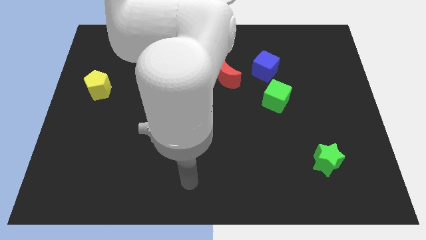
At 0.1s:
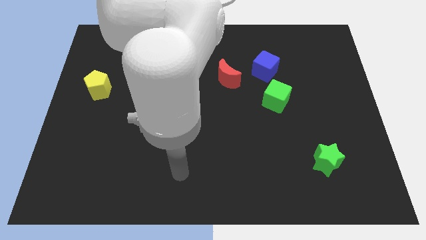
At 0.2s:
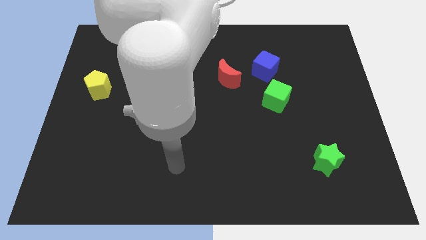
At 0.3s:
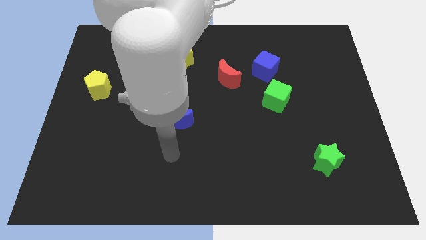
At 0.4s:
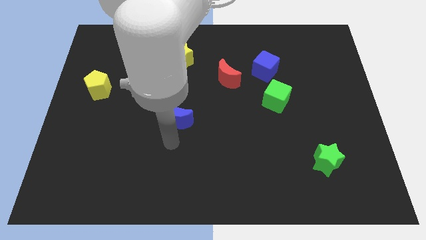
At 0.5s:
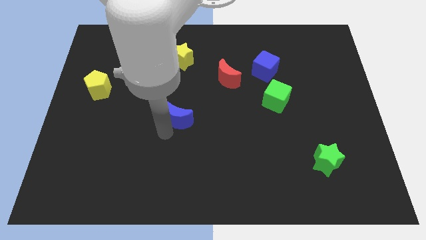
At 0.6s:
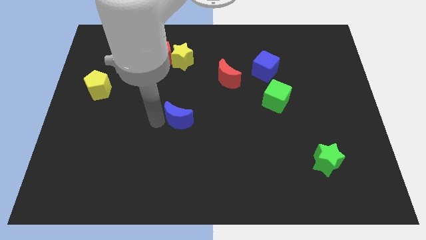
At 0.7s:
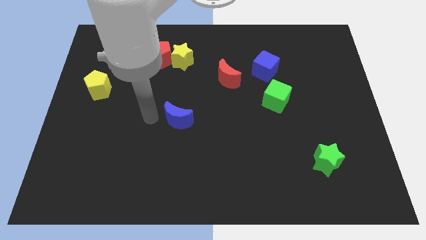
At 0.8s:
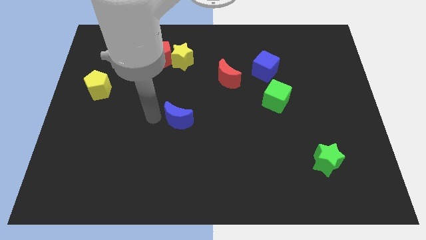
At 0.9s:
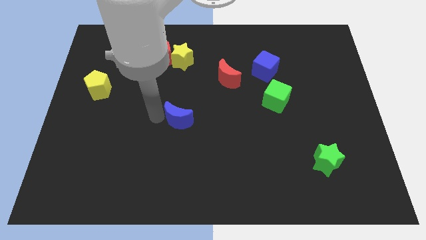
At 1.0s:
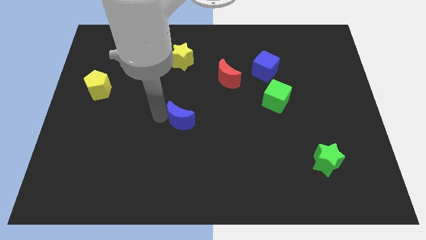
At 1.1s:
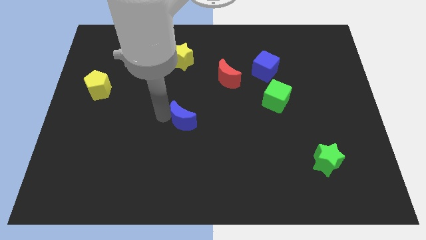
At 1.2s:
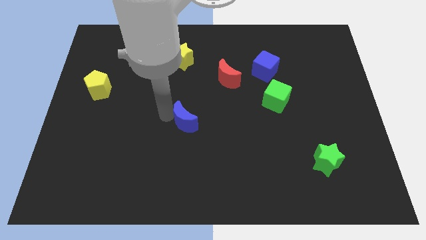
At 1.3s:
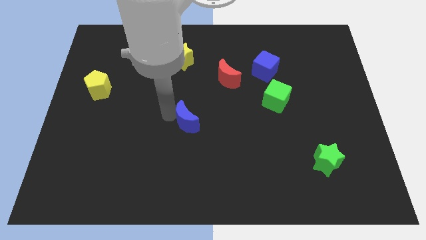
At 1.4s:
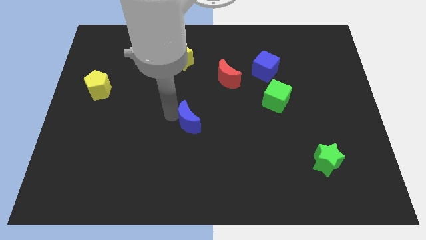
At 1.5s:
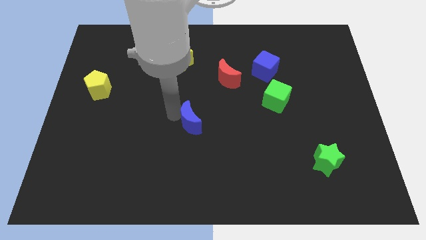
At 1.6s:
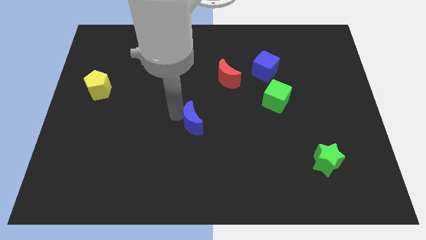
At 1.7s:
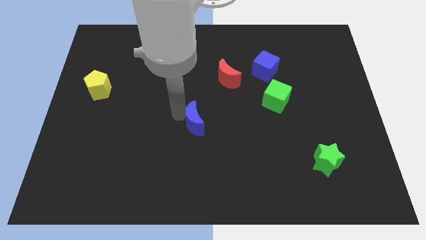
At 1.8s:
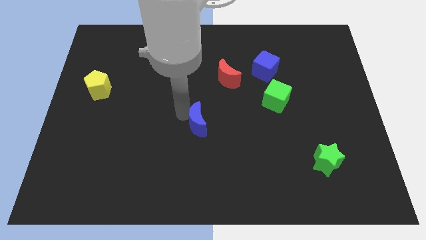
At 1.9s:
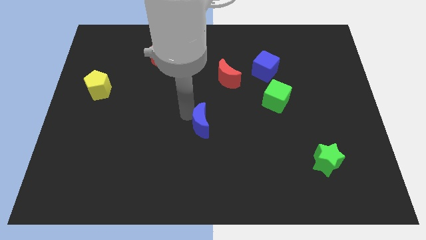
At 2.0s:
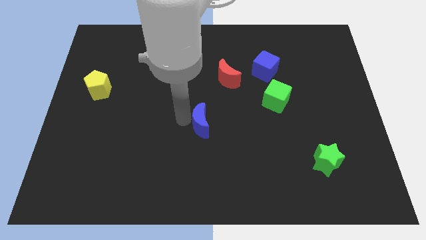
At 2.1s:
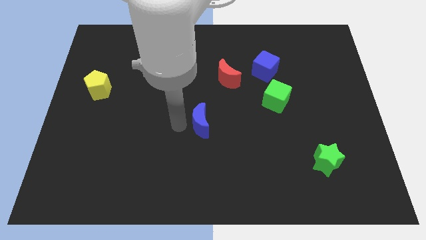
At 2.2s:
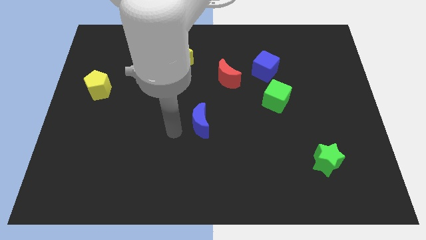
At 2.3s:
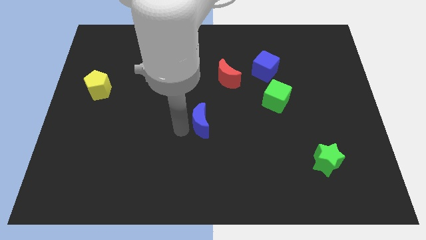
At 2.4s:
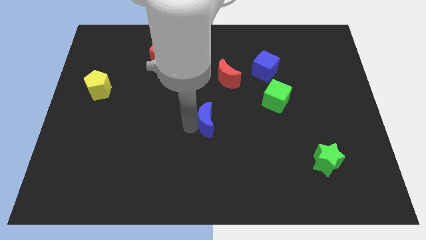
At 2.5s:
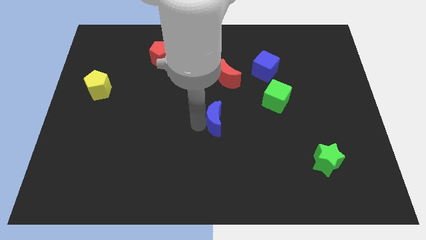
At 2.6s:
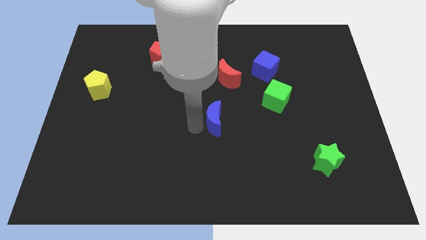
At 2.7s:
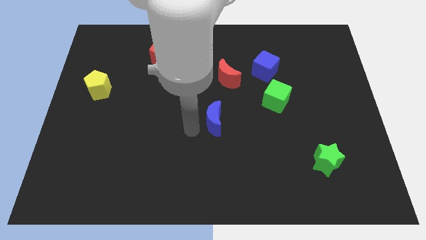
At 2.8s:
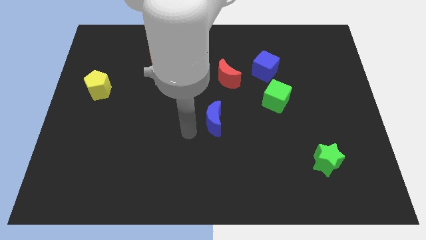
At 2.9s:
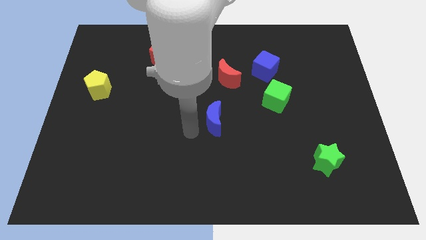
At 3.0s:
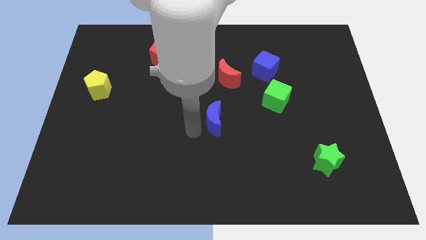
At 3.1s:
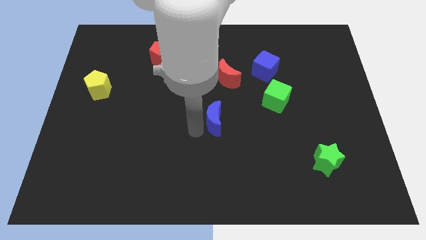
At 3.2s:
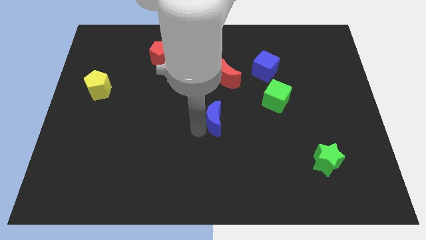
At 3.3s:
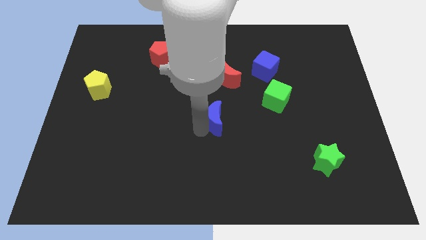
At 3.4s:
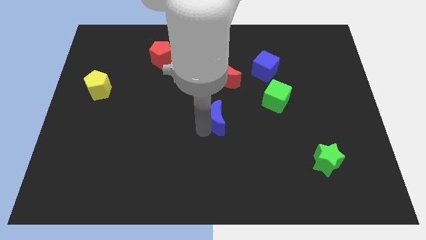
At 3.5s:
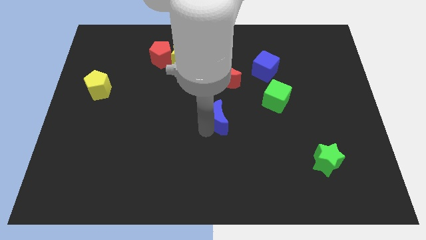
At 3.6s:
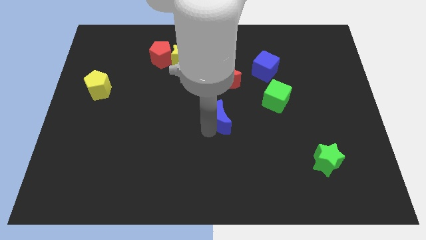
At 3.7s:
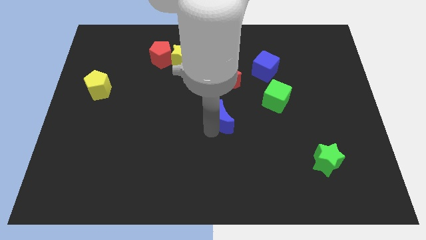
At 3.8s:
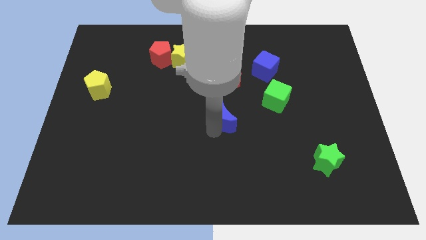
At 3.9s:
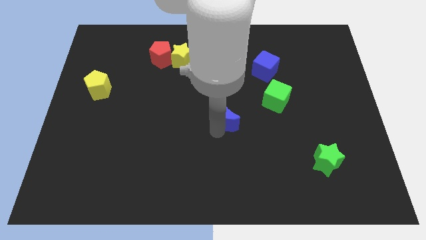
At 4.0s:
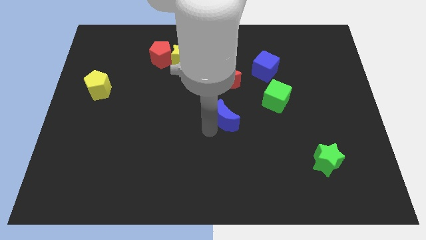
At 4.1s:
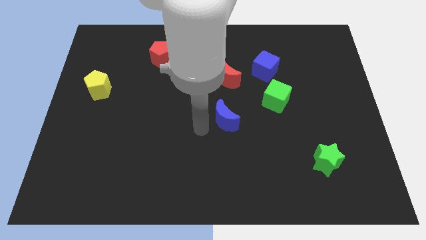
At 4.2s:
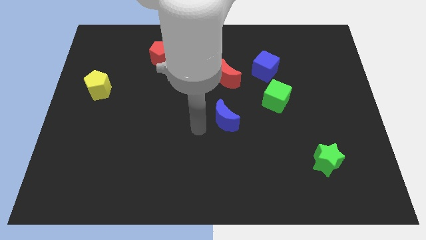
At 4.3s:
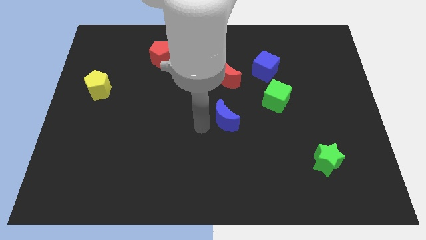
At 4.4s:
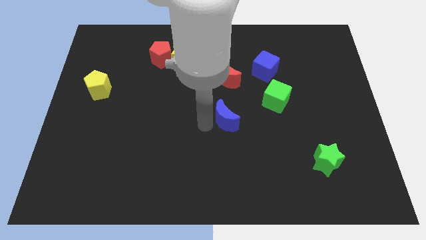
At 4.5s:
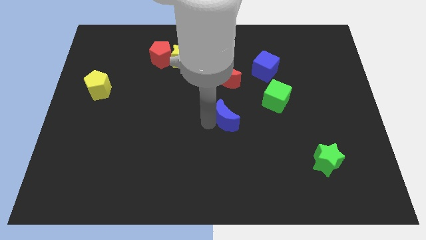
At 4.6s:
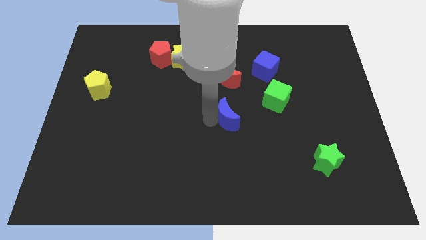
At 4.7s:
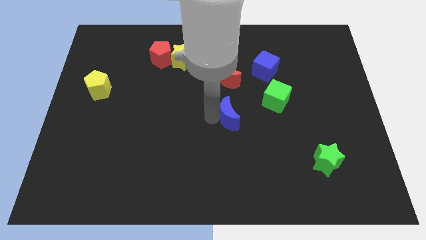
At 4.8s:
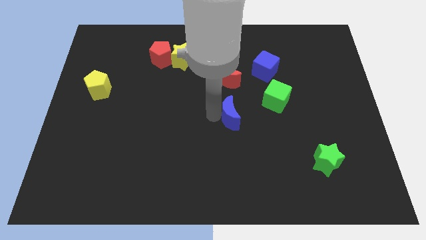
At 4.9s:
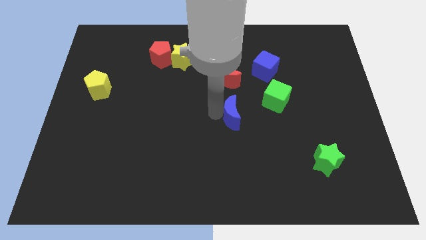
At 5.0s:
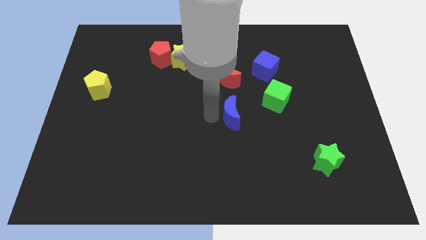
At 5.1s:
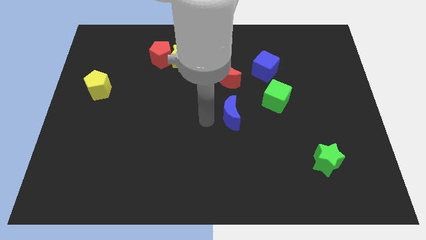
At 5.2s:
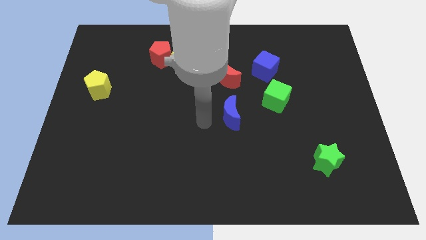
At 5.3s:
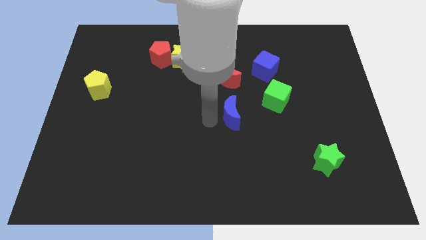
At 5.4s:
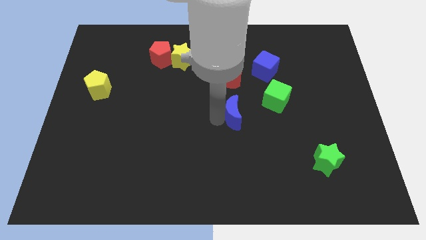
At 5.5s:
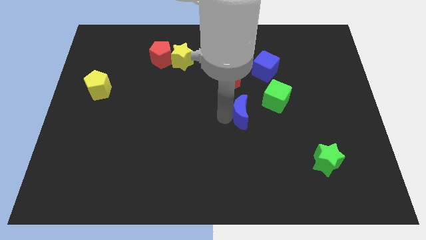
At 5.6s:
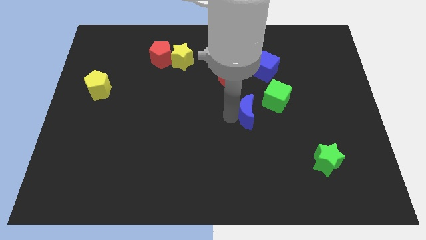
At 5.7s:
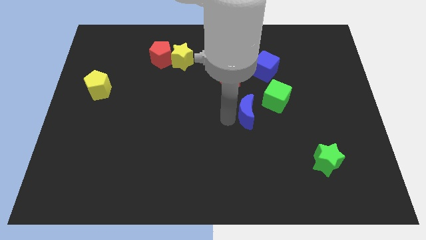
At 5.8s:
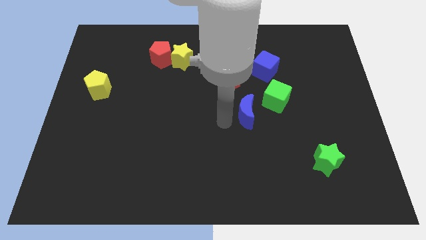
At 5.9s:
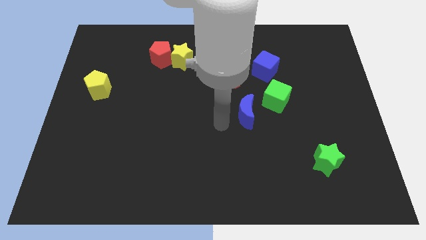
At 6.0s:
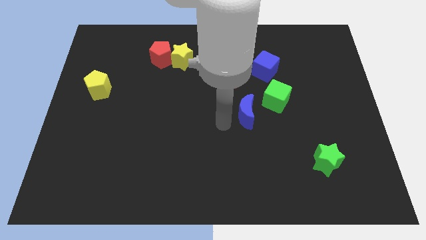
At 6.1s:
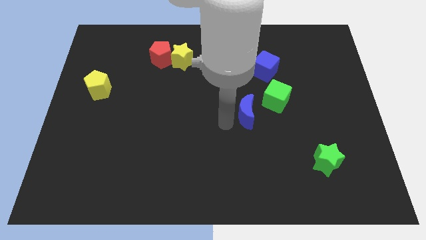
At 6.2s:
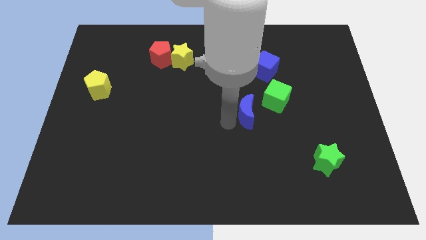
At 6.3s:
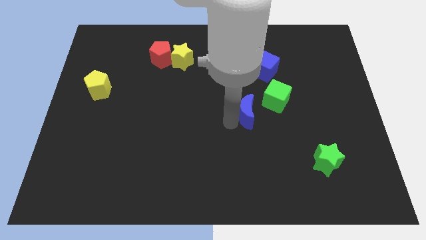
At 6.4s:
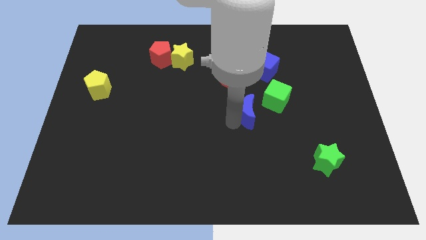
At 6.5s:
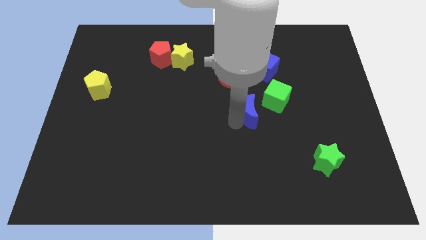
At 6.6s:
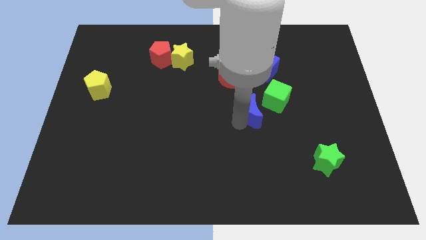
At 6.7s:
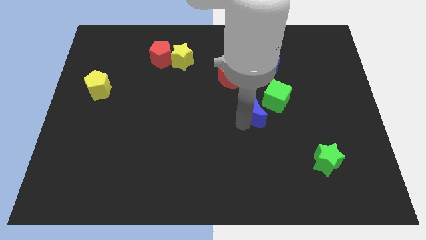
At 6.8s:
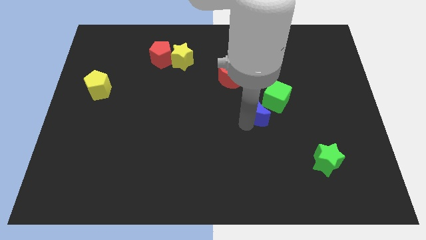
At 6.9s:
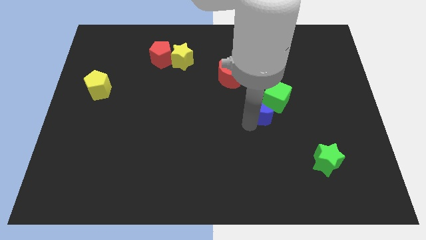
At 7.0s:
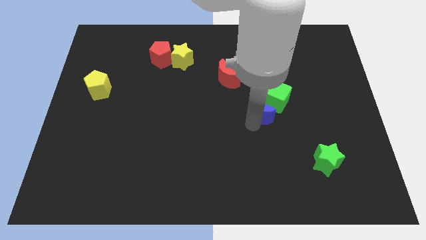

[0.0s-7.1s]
push the blue moon next to the green cube
